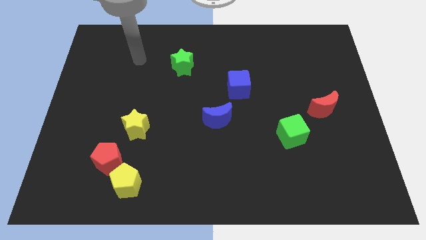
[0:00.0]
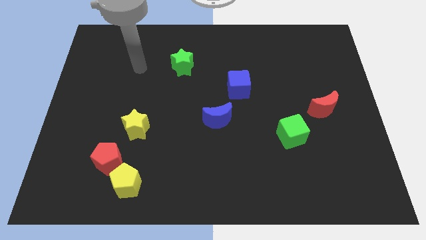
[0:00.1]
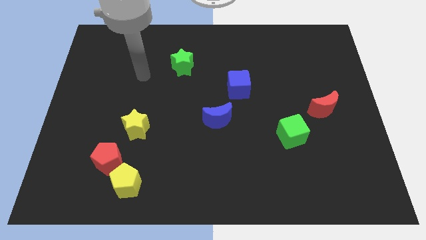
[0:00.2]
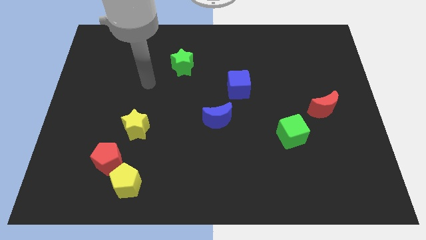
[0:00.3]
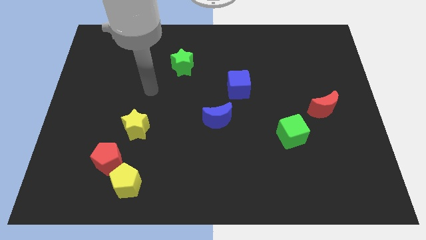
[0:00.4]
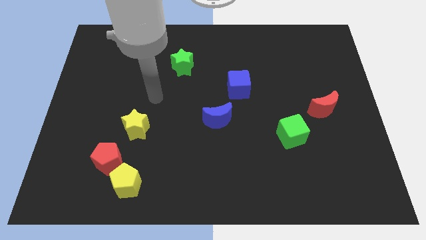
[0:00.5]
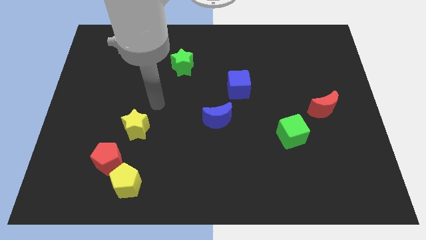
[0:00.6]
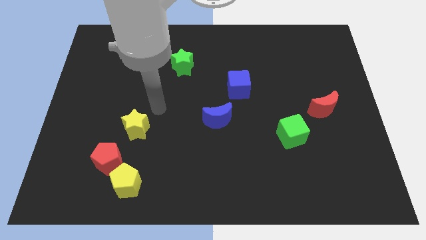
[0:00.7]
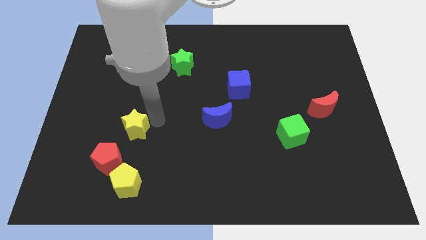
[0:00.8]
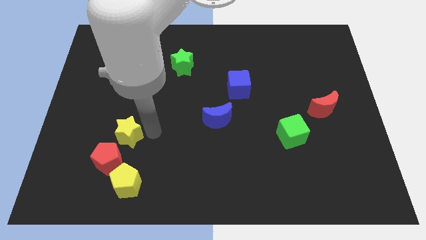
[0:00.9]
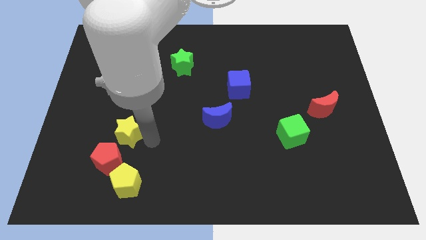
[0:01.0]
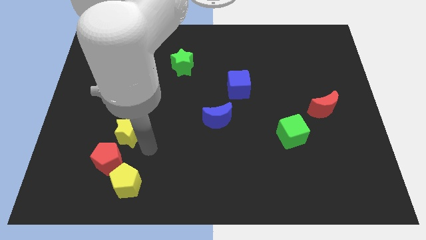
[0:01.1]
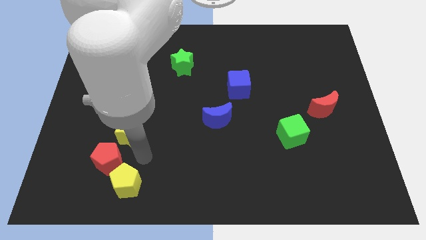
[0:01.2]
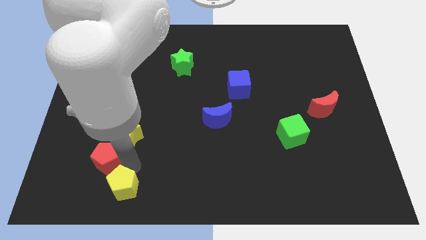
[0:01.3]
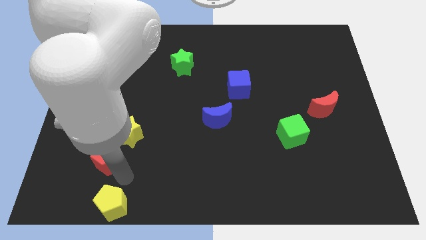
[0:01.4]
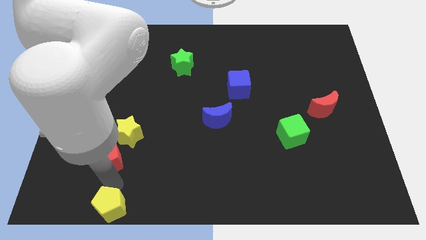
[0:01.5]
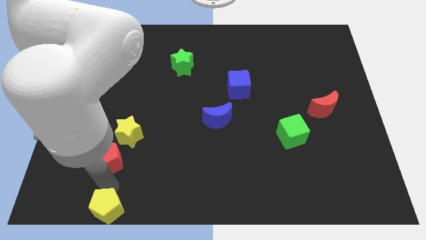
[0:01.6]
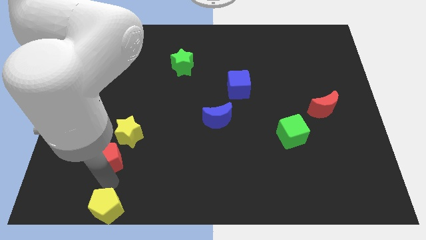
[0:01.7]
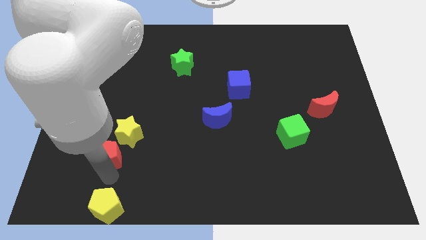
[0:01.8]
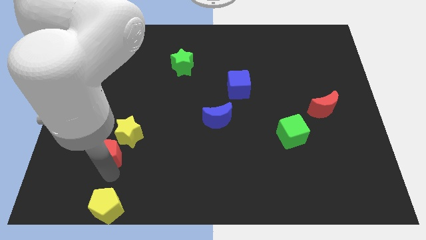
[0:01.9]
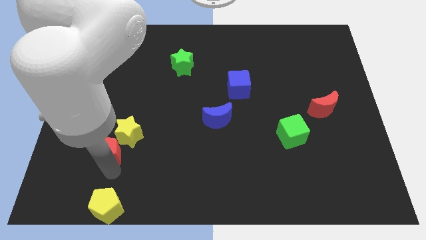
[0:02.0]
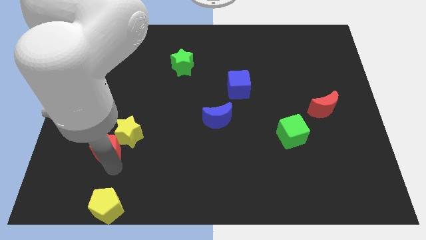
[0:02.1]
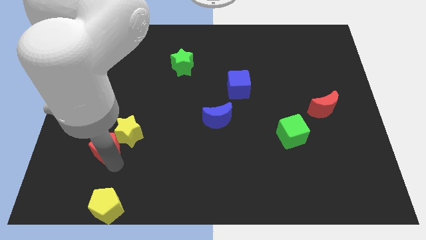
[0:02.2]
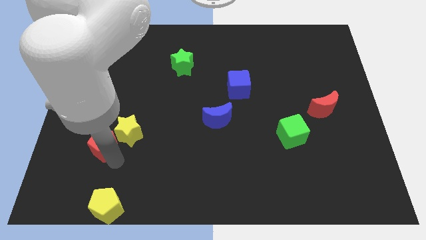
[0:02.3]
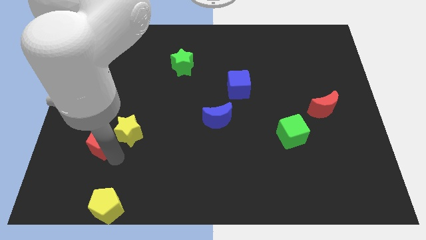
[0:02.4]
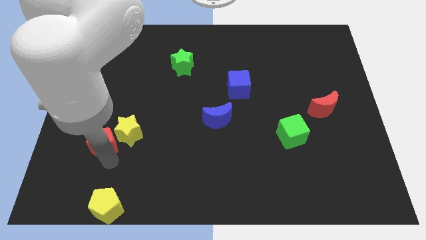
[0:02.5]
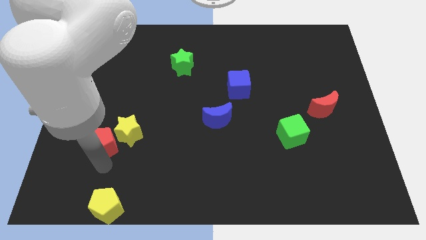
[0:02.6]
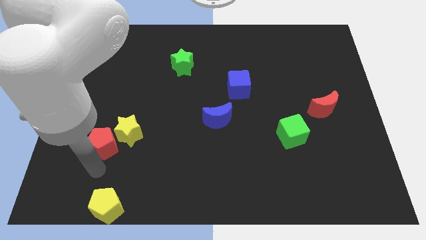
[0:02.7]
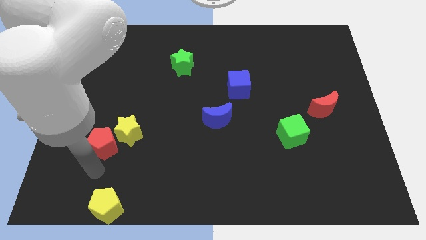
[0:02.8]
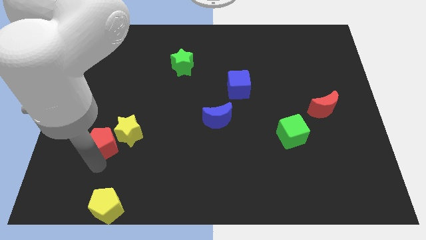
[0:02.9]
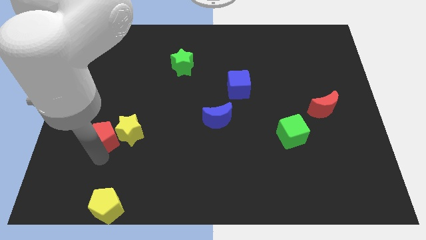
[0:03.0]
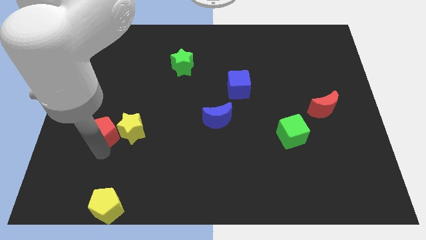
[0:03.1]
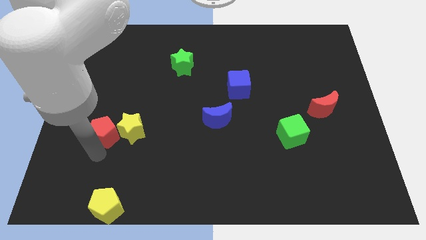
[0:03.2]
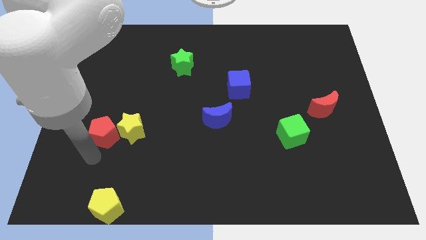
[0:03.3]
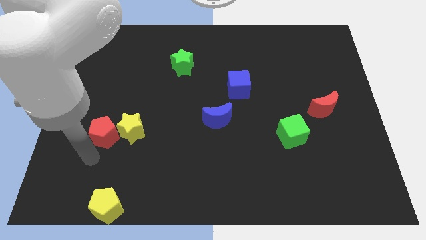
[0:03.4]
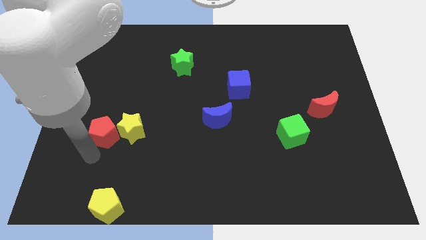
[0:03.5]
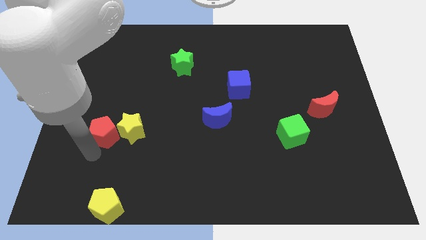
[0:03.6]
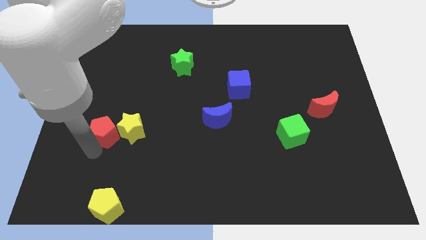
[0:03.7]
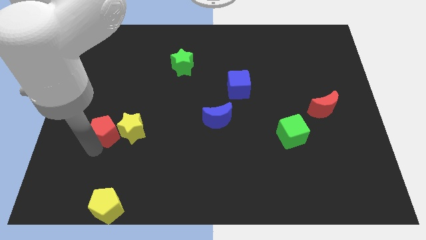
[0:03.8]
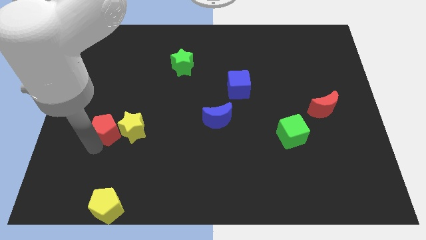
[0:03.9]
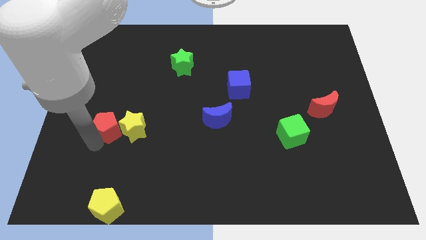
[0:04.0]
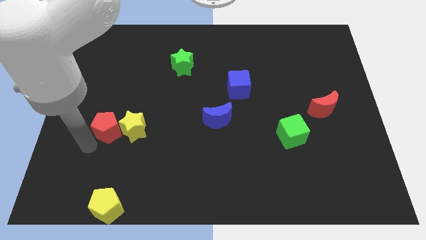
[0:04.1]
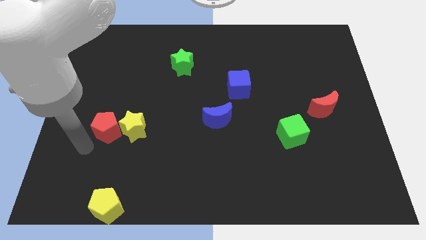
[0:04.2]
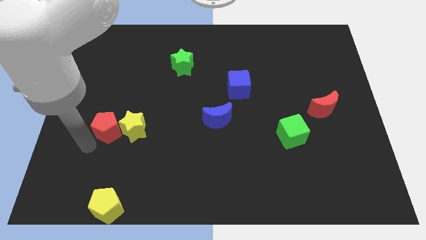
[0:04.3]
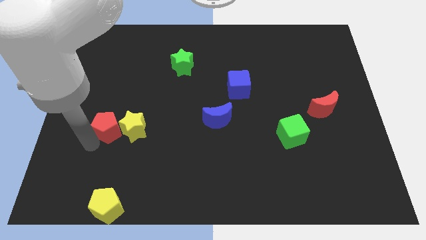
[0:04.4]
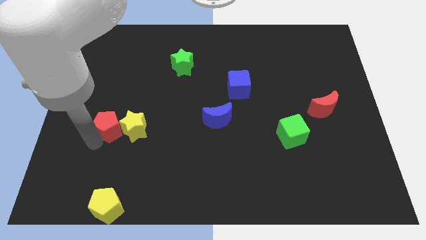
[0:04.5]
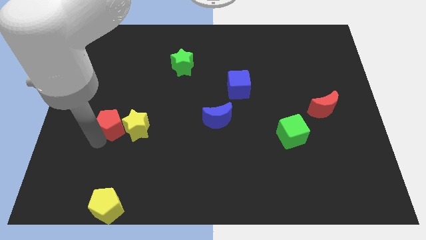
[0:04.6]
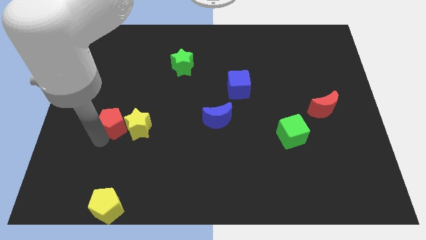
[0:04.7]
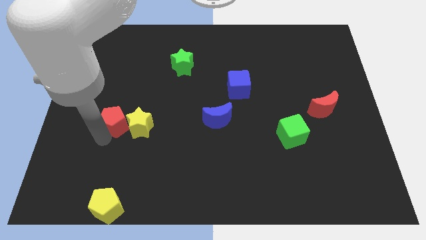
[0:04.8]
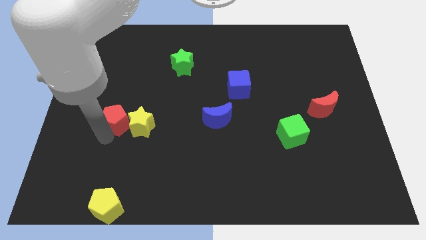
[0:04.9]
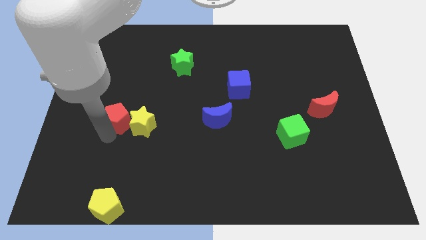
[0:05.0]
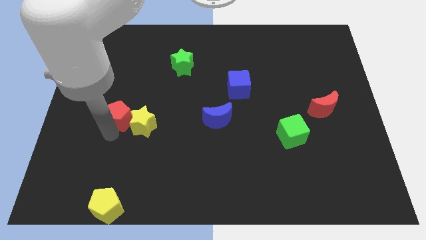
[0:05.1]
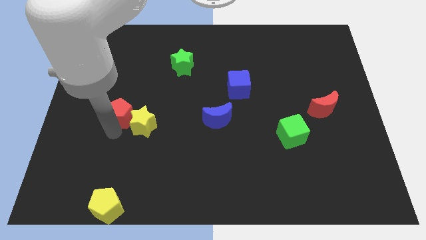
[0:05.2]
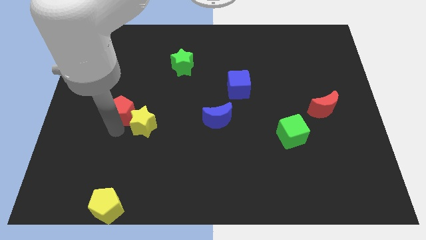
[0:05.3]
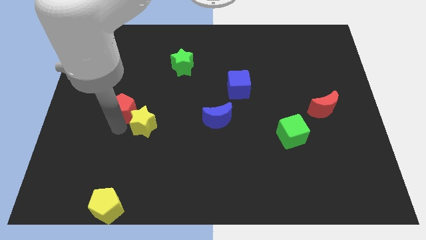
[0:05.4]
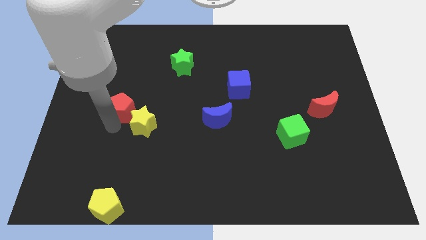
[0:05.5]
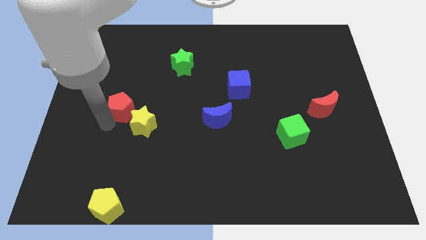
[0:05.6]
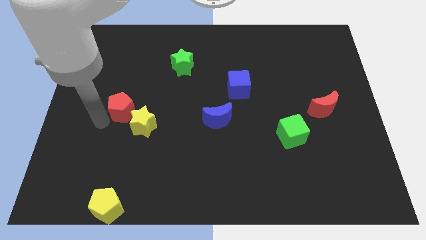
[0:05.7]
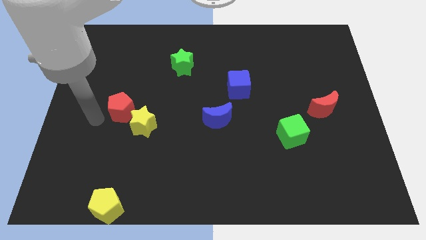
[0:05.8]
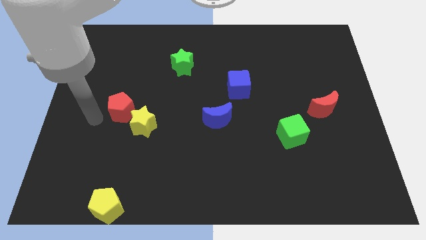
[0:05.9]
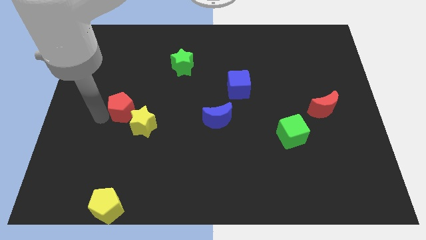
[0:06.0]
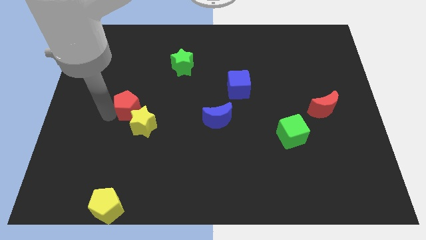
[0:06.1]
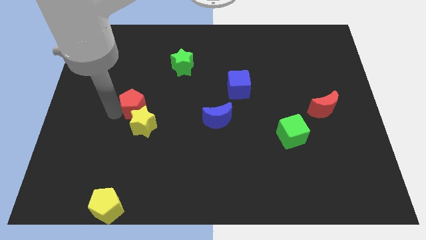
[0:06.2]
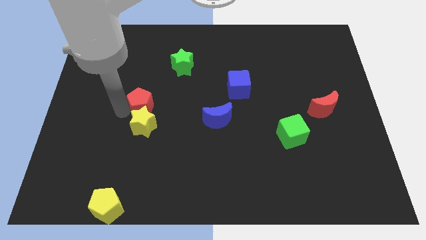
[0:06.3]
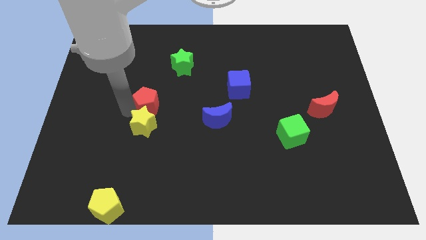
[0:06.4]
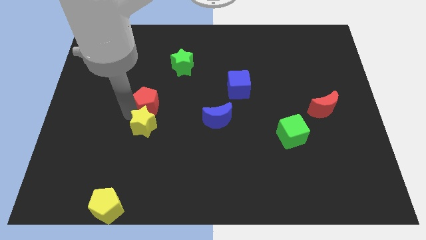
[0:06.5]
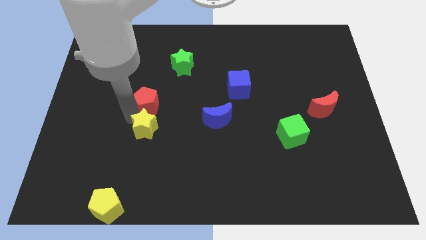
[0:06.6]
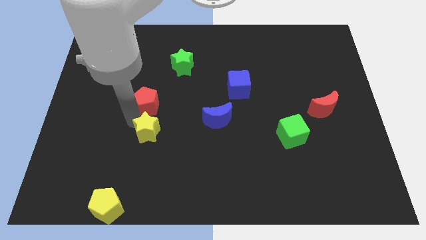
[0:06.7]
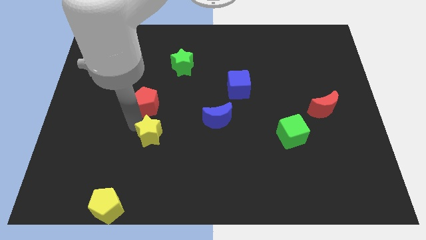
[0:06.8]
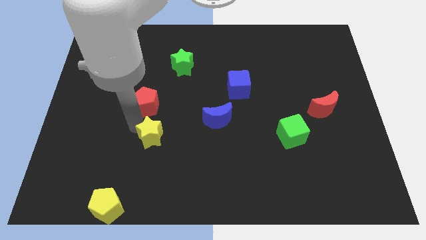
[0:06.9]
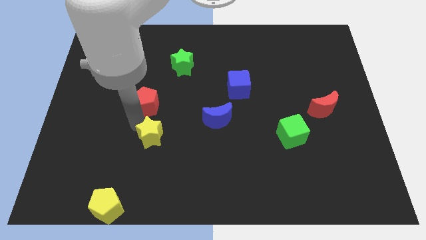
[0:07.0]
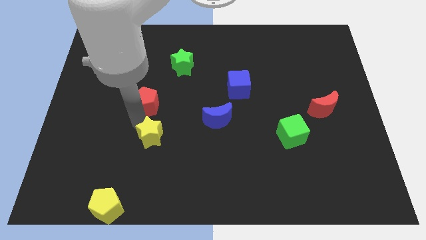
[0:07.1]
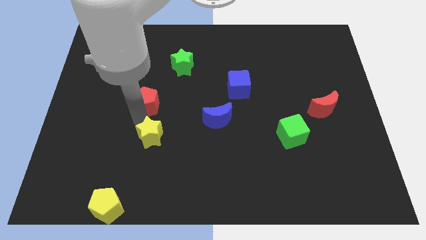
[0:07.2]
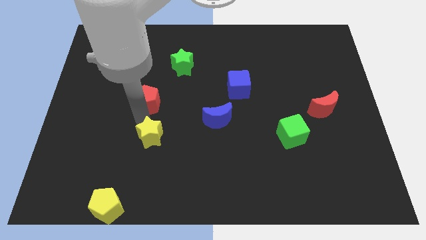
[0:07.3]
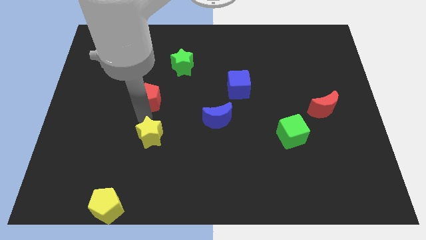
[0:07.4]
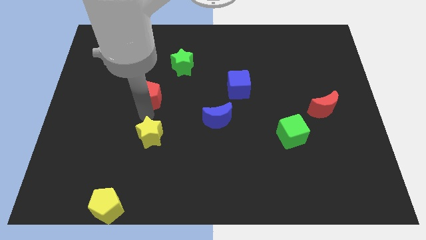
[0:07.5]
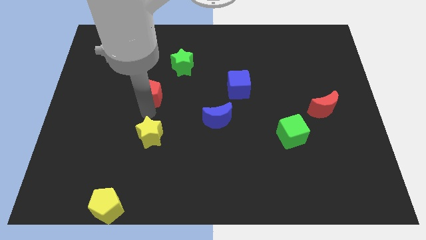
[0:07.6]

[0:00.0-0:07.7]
move the red pentagon to the bottom left of the green star
